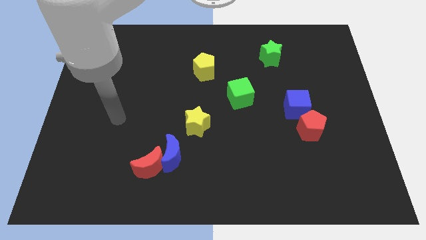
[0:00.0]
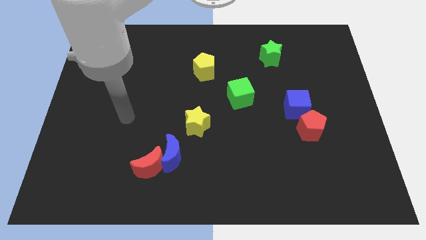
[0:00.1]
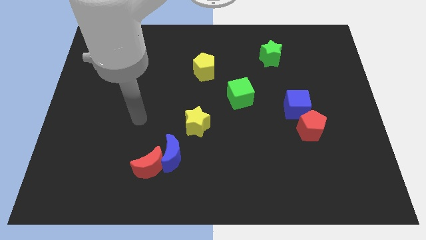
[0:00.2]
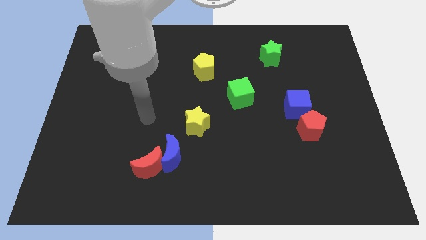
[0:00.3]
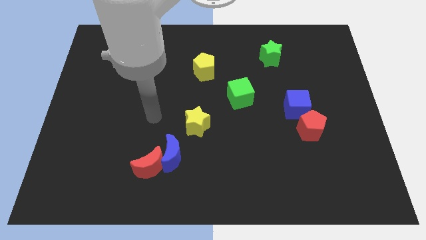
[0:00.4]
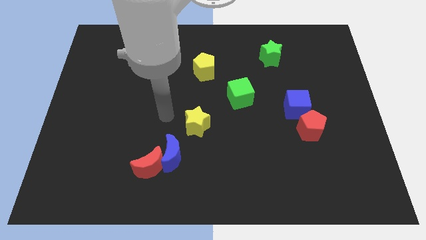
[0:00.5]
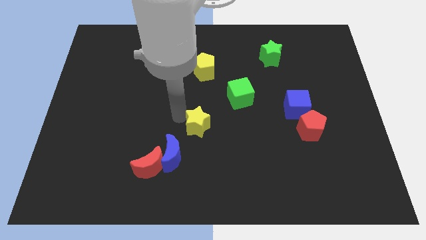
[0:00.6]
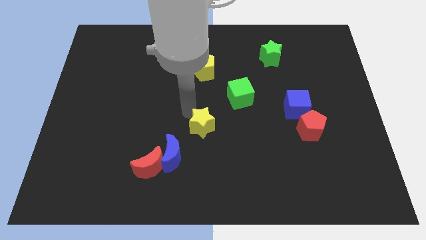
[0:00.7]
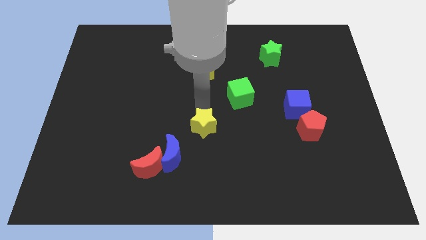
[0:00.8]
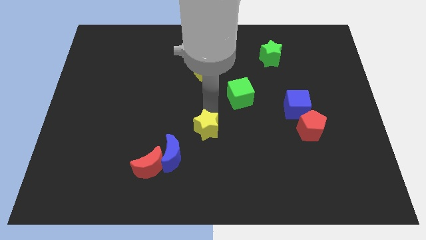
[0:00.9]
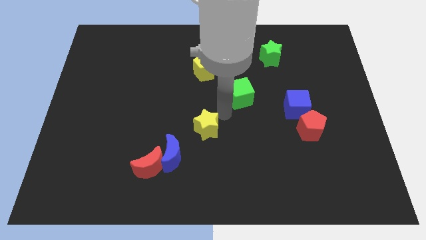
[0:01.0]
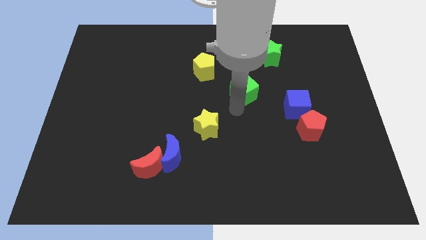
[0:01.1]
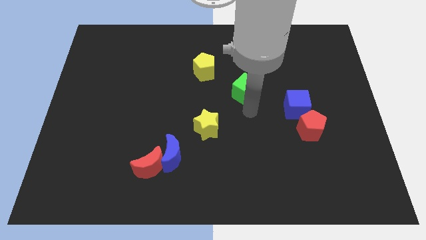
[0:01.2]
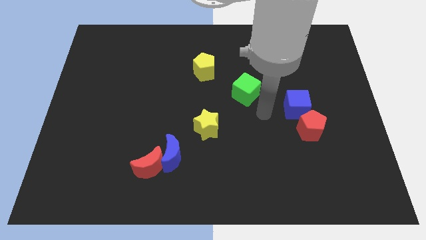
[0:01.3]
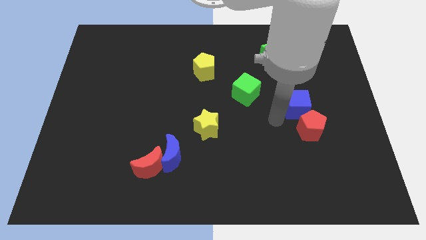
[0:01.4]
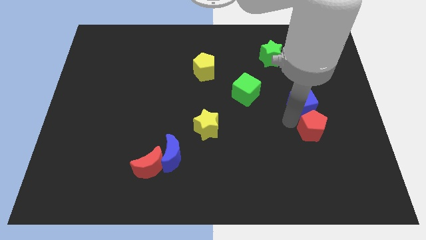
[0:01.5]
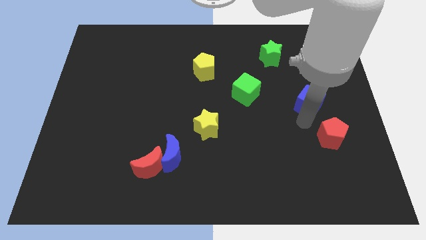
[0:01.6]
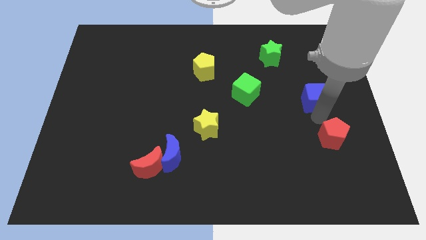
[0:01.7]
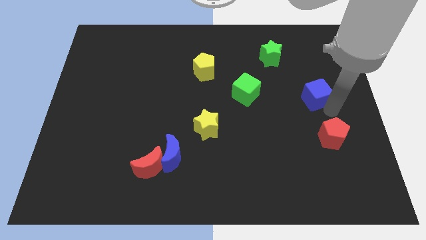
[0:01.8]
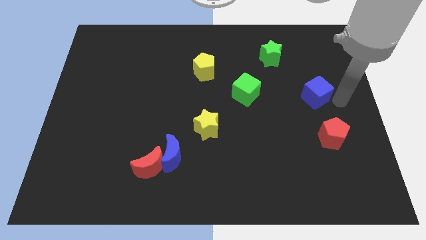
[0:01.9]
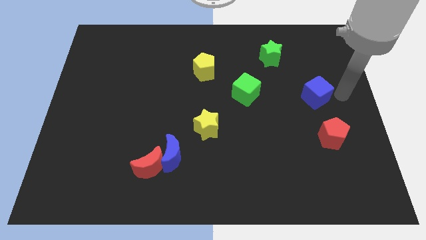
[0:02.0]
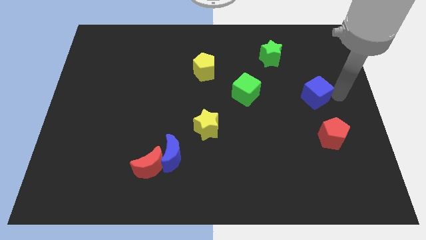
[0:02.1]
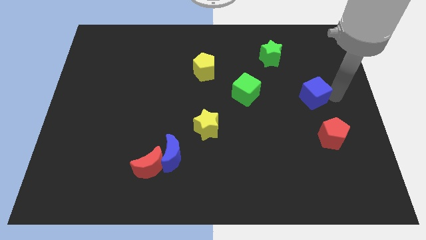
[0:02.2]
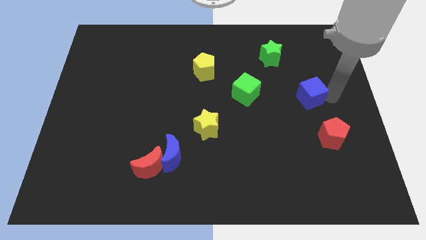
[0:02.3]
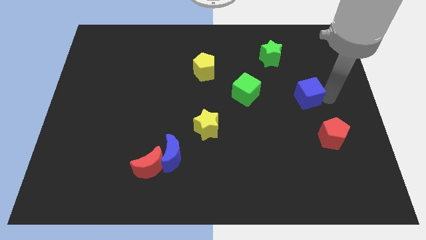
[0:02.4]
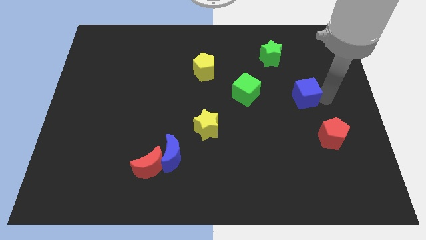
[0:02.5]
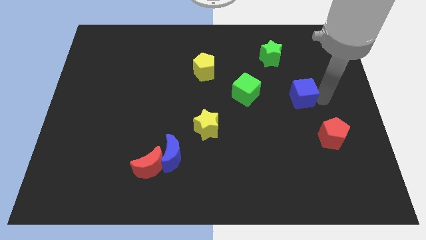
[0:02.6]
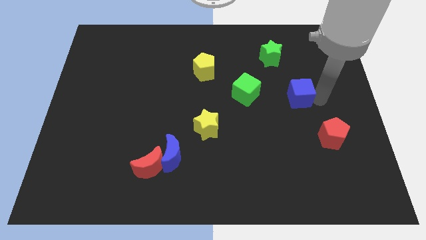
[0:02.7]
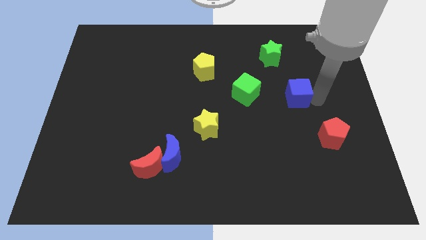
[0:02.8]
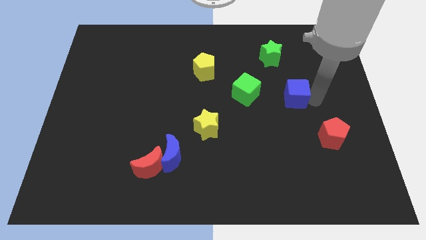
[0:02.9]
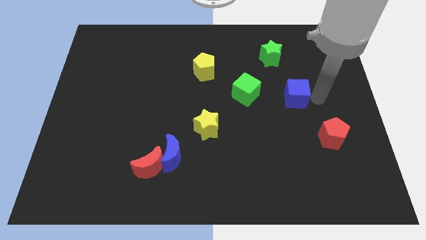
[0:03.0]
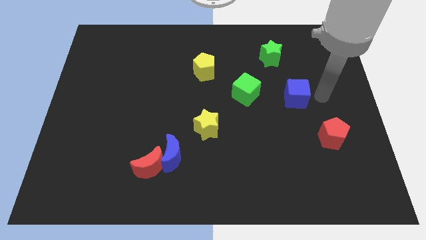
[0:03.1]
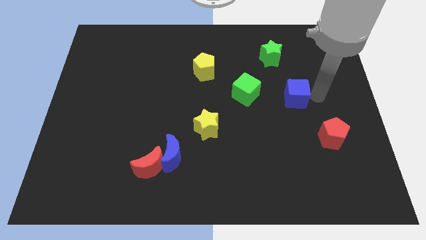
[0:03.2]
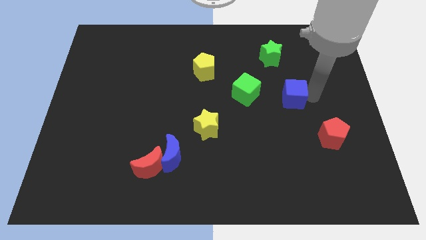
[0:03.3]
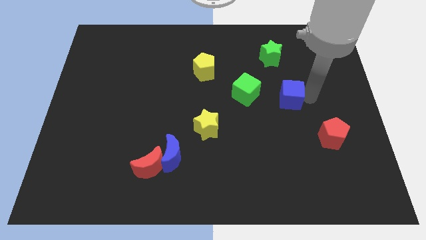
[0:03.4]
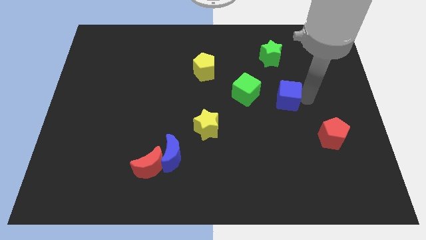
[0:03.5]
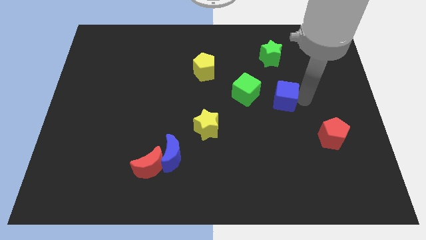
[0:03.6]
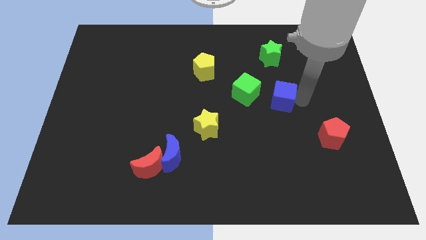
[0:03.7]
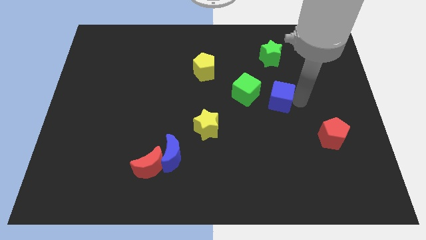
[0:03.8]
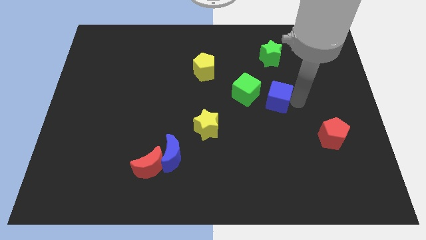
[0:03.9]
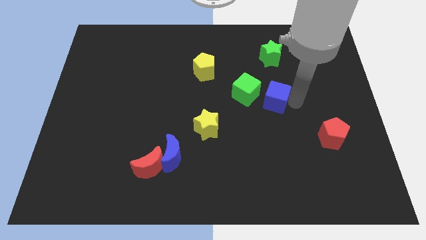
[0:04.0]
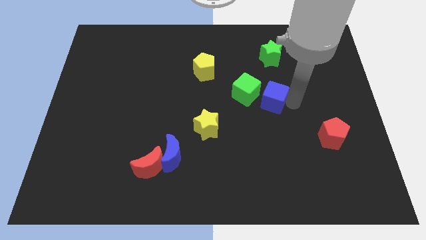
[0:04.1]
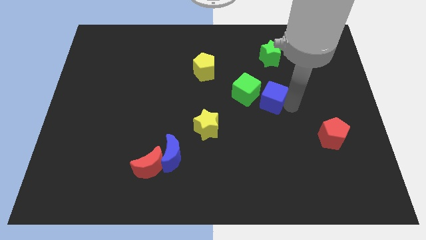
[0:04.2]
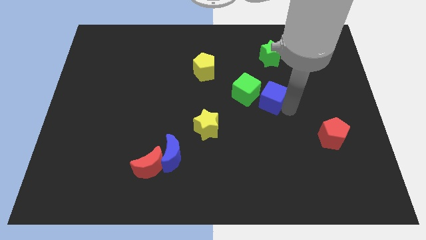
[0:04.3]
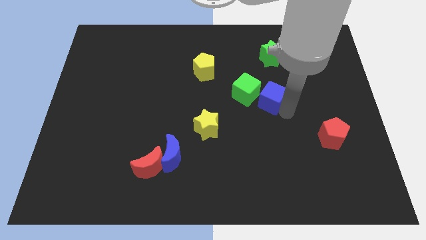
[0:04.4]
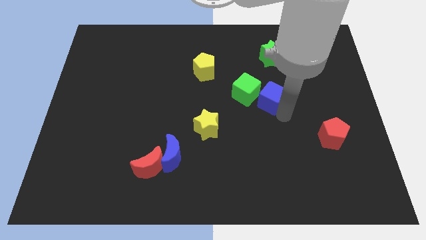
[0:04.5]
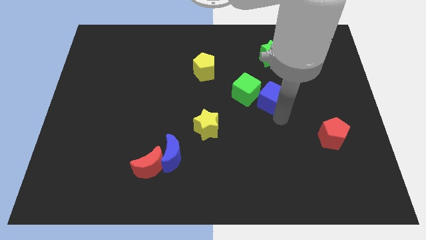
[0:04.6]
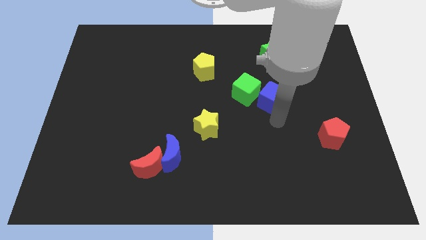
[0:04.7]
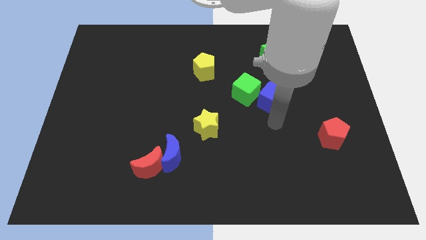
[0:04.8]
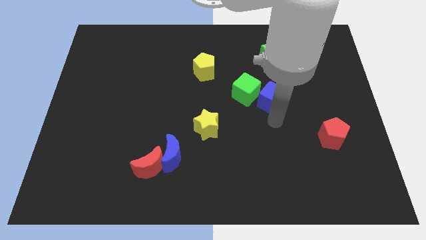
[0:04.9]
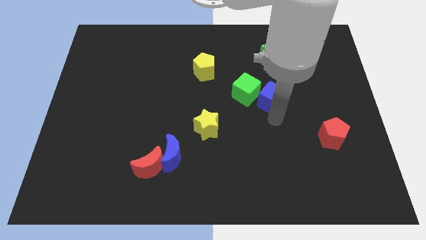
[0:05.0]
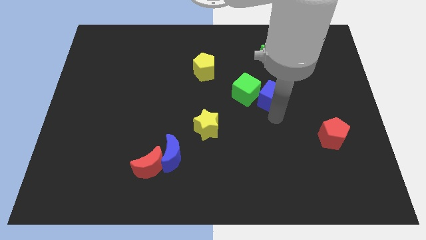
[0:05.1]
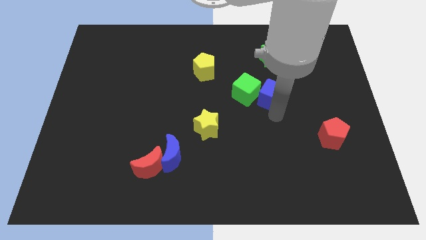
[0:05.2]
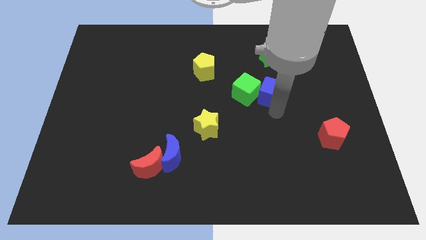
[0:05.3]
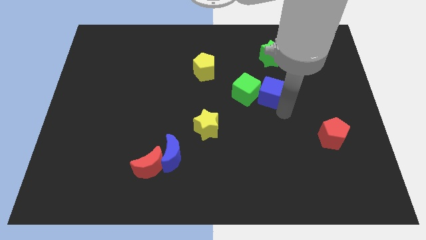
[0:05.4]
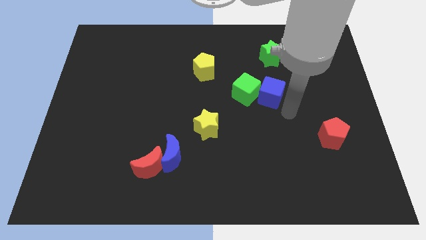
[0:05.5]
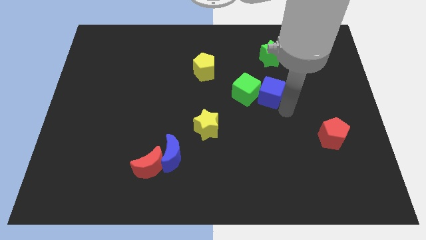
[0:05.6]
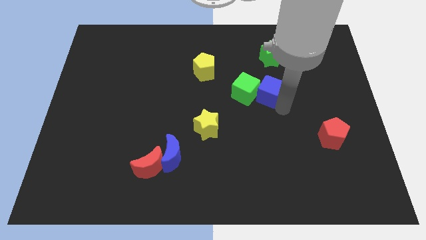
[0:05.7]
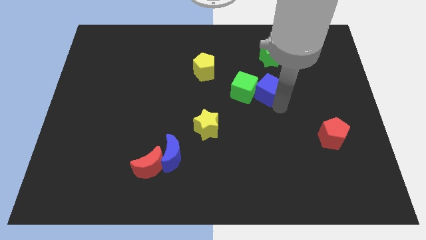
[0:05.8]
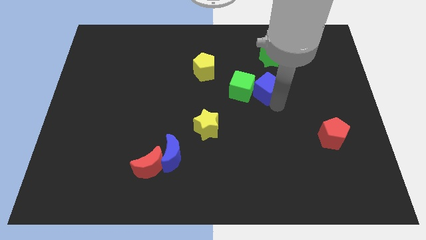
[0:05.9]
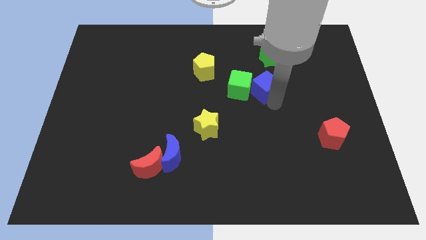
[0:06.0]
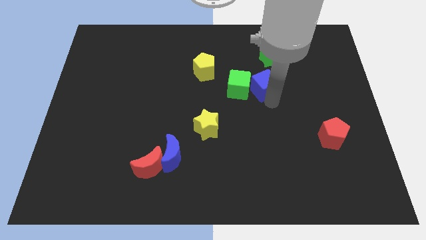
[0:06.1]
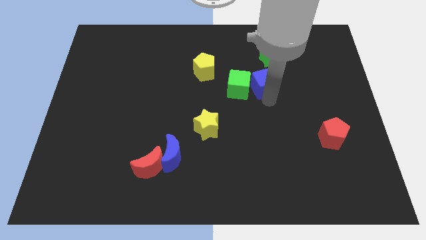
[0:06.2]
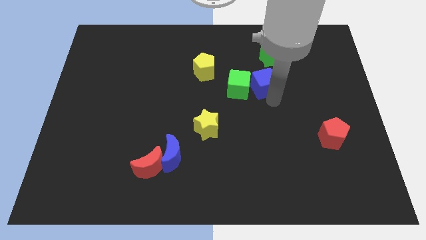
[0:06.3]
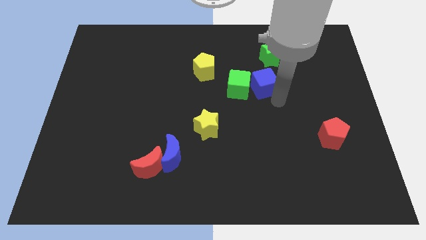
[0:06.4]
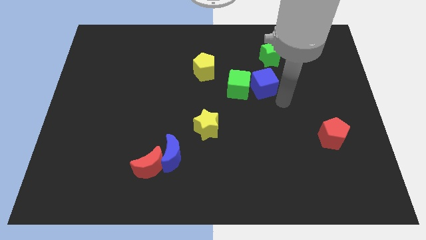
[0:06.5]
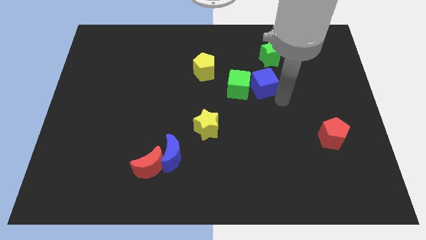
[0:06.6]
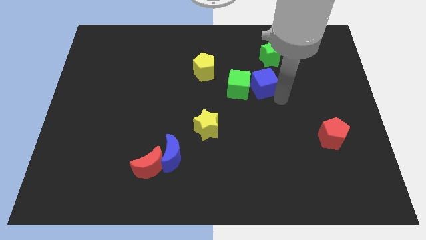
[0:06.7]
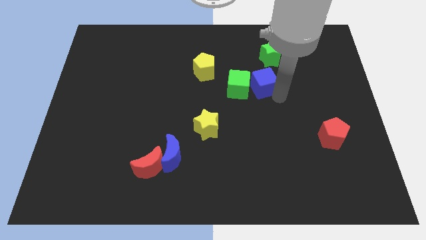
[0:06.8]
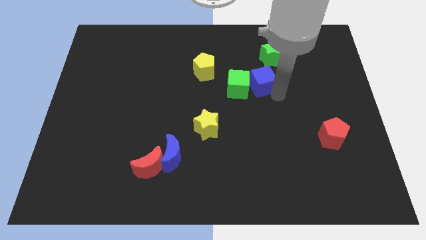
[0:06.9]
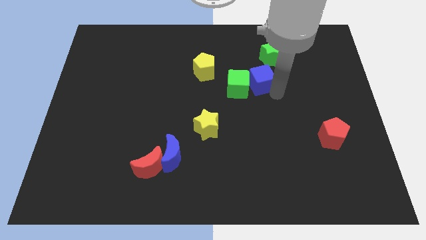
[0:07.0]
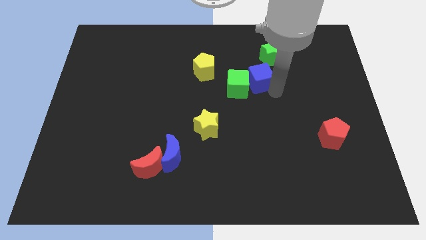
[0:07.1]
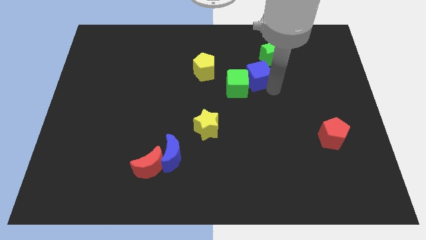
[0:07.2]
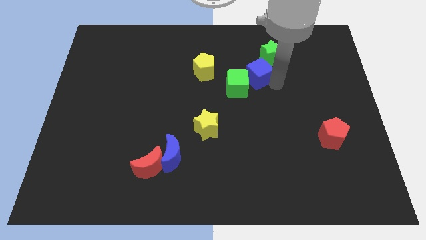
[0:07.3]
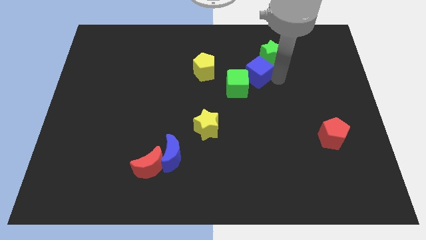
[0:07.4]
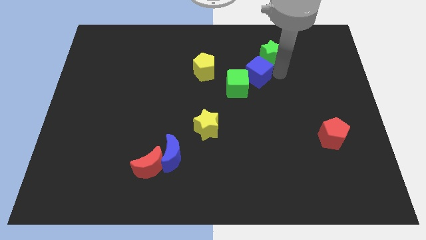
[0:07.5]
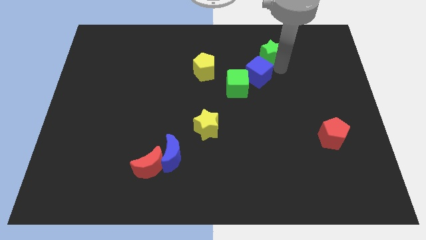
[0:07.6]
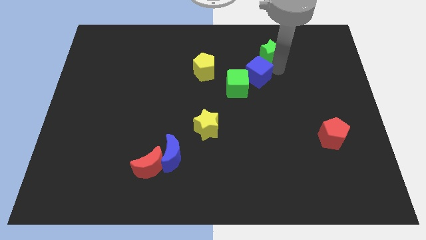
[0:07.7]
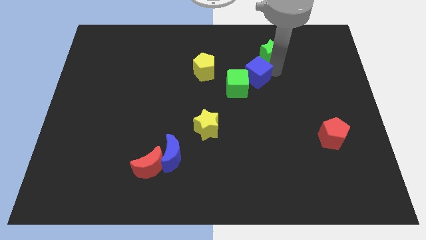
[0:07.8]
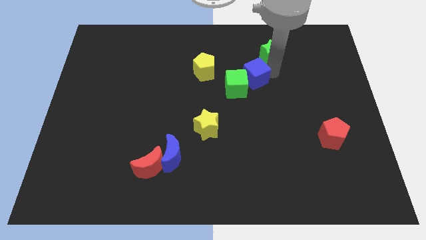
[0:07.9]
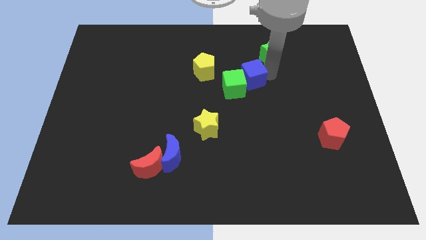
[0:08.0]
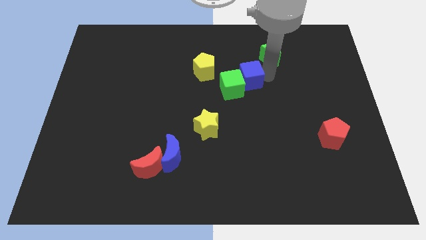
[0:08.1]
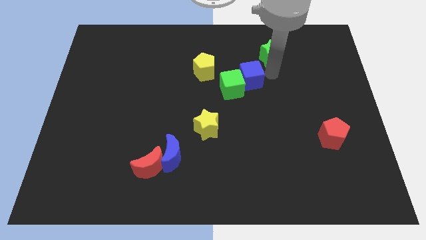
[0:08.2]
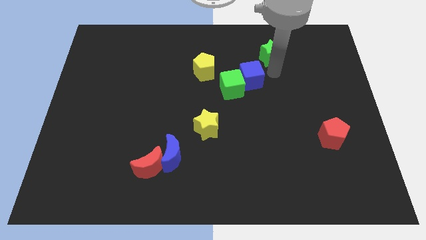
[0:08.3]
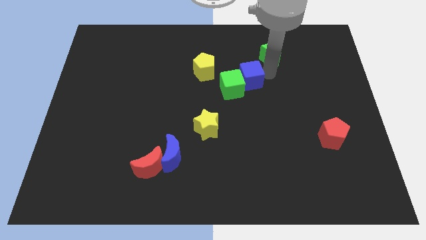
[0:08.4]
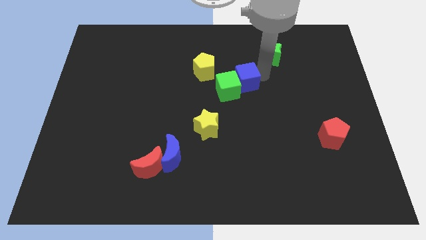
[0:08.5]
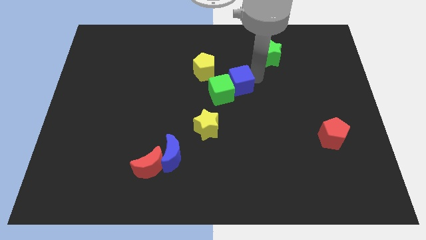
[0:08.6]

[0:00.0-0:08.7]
move the blue cube to the bottom right side of the yellow pentagon
